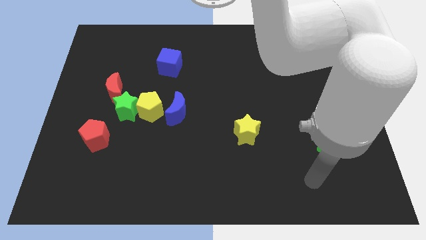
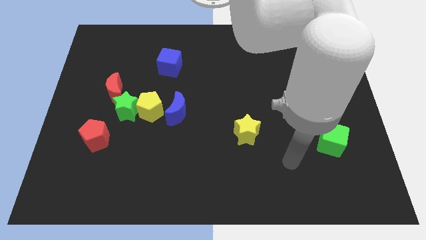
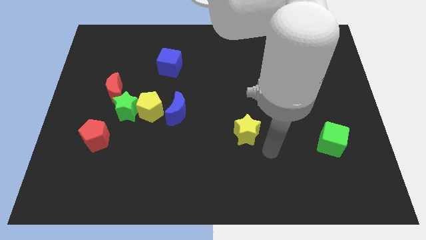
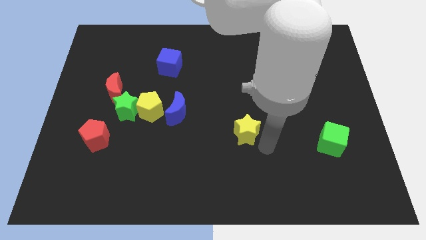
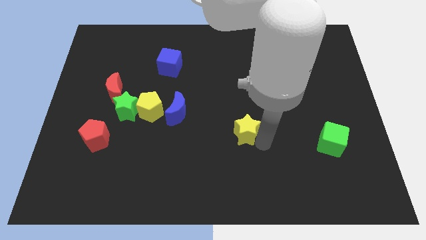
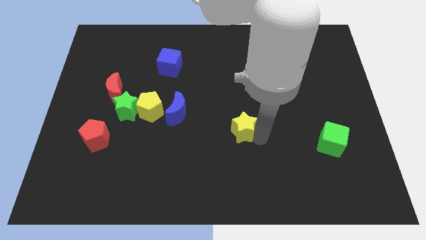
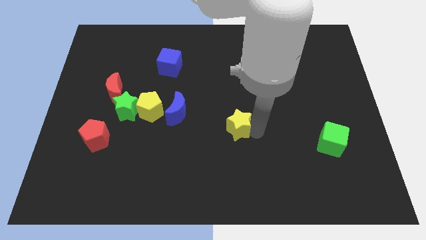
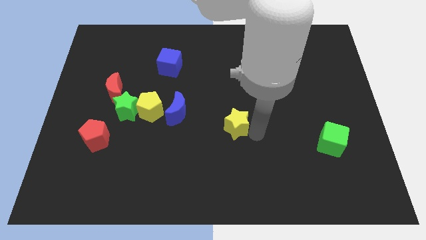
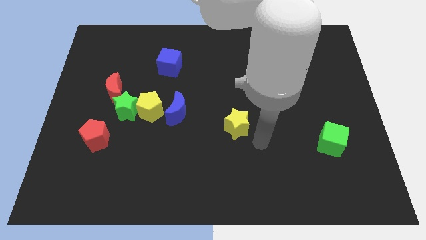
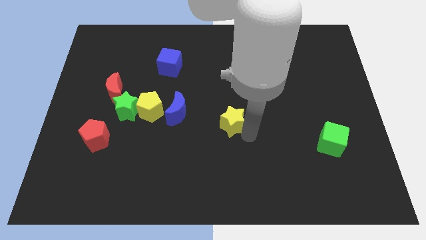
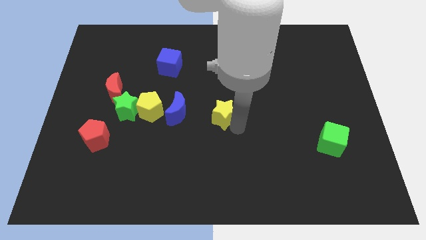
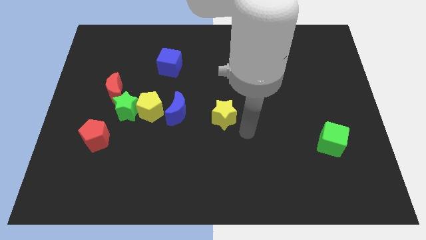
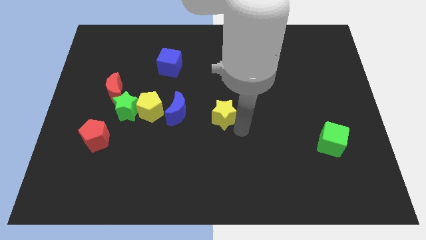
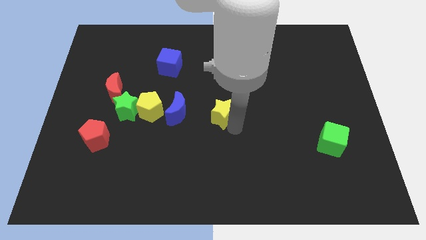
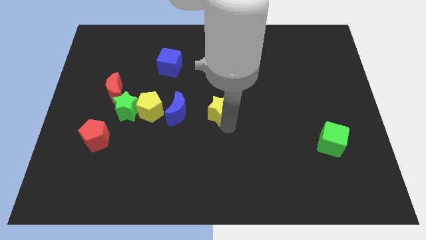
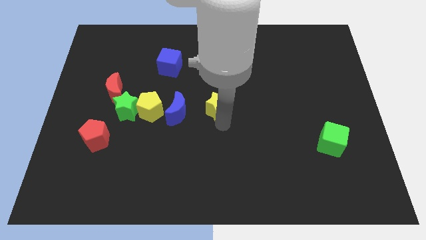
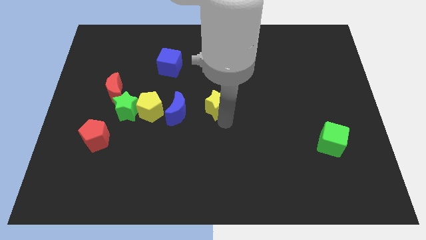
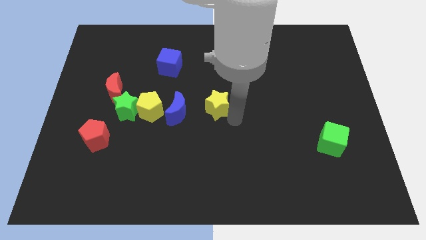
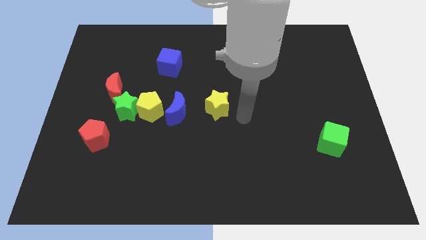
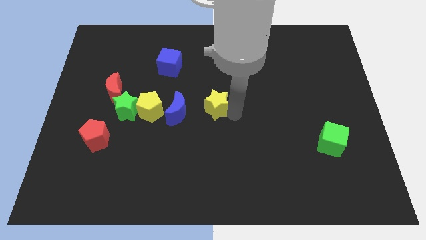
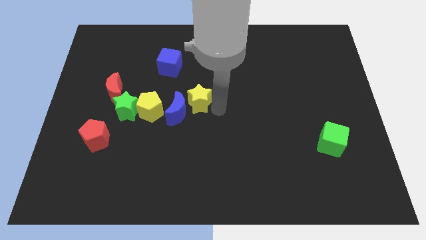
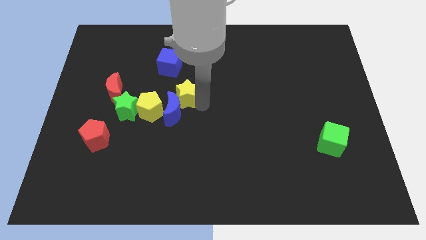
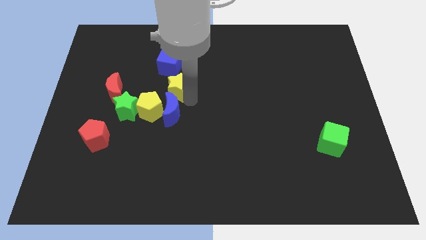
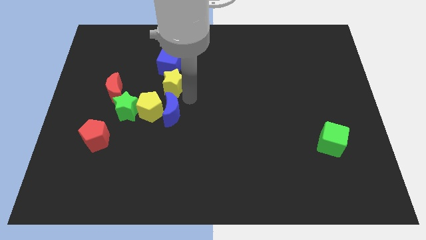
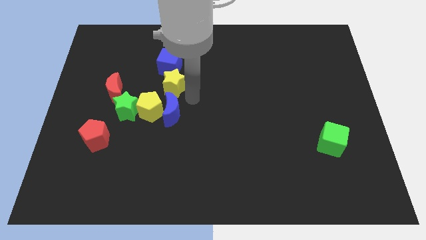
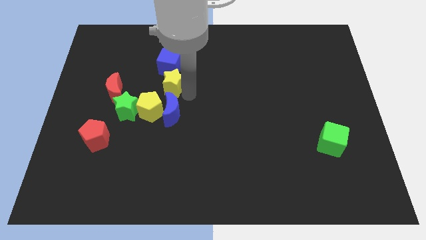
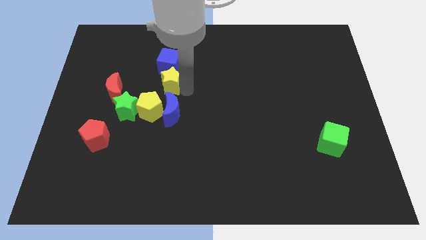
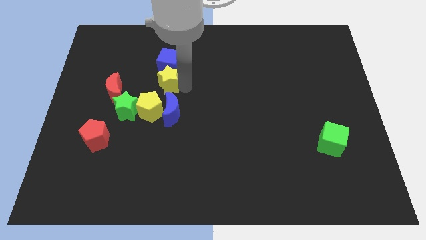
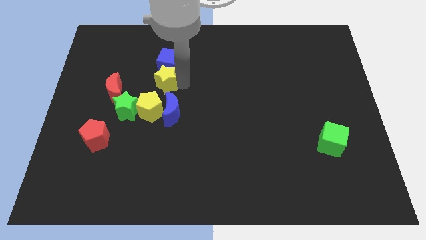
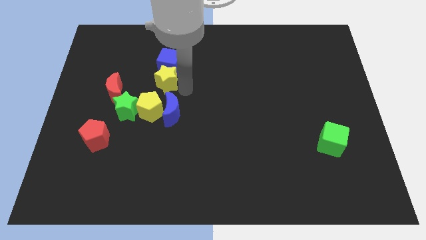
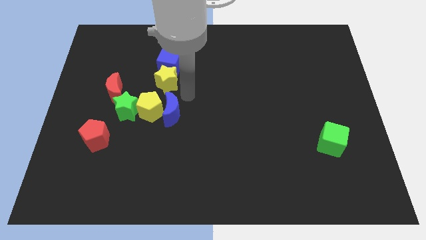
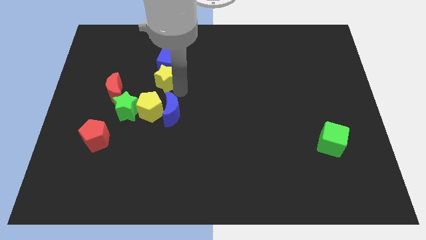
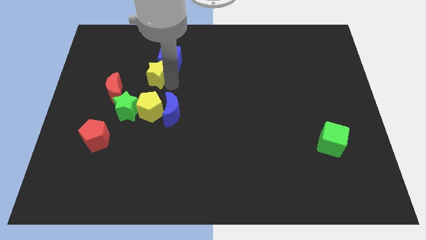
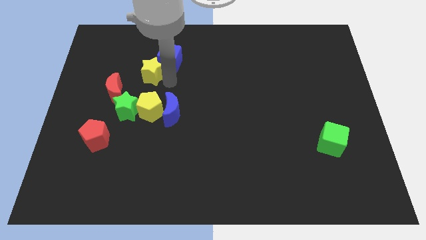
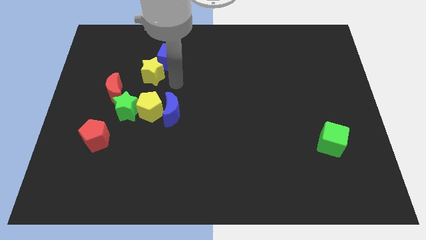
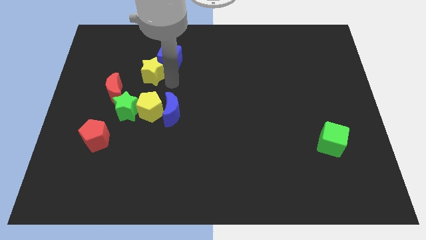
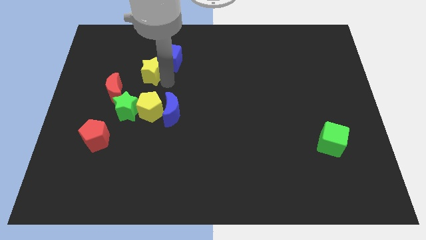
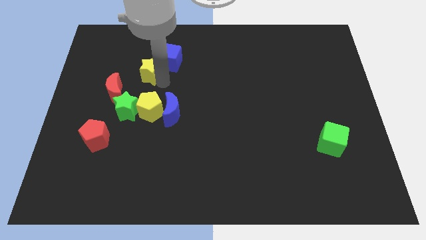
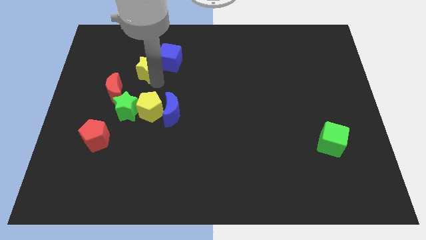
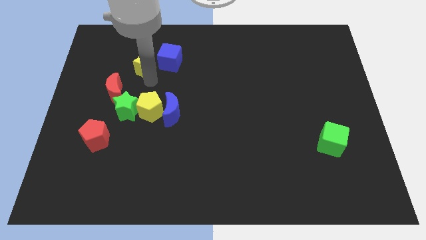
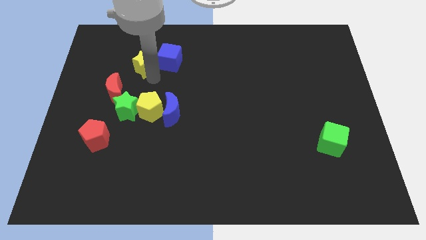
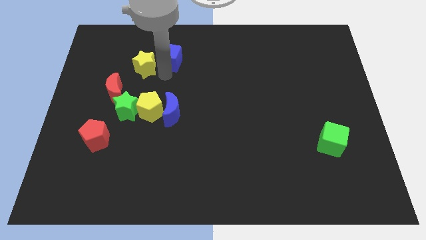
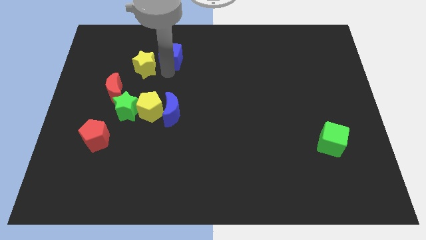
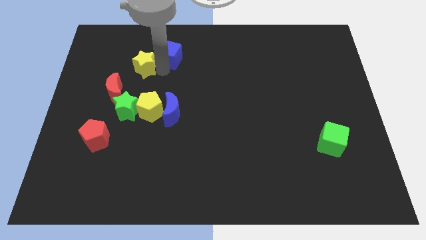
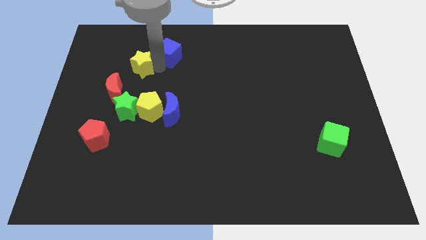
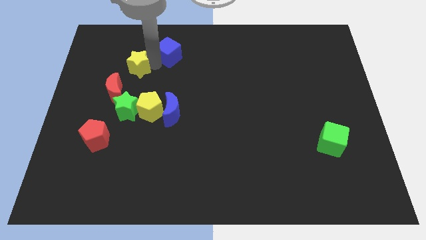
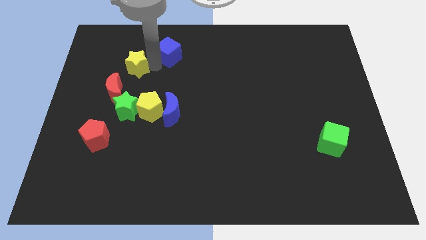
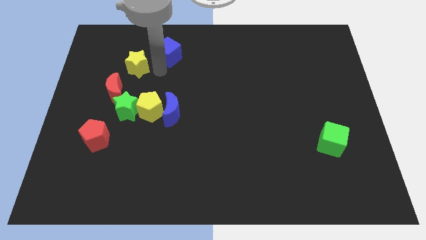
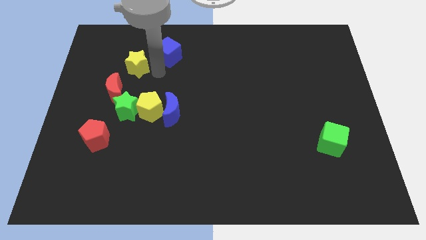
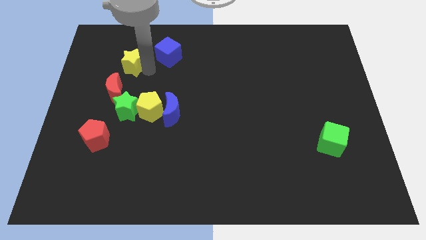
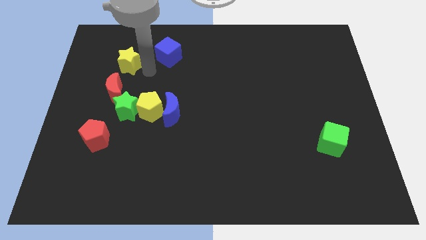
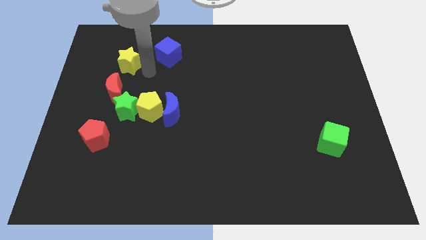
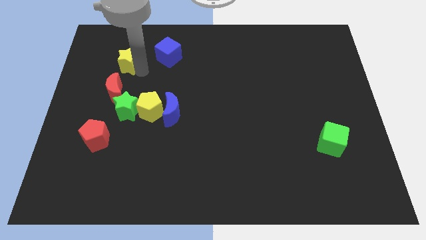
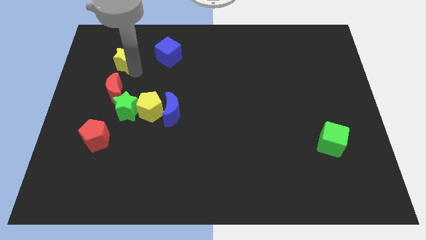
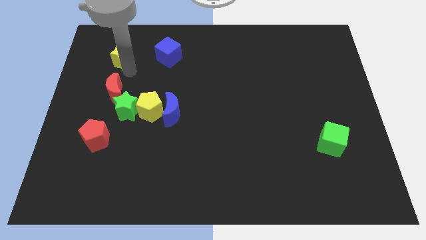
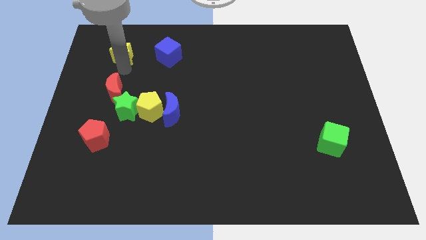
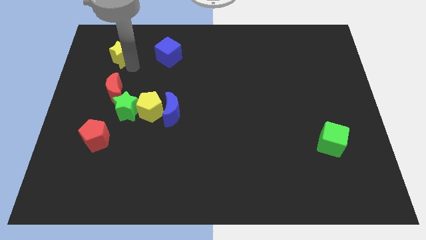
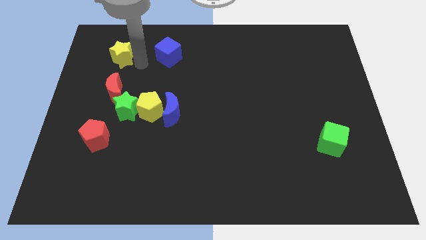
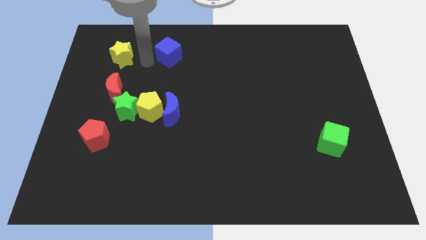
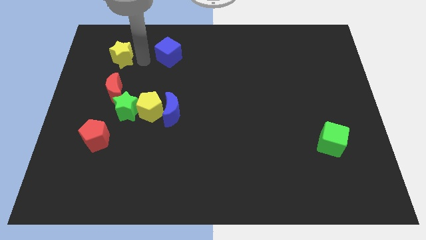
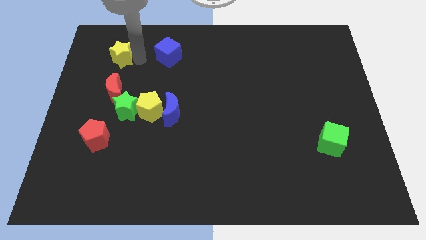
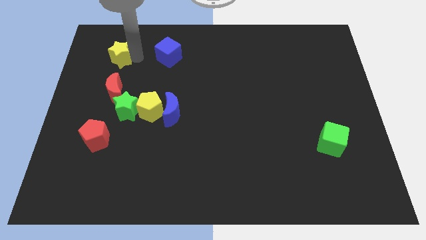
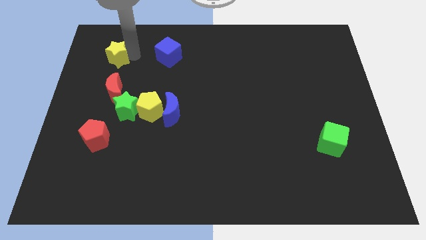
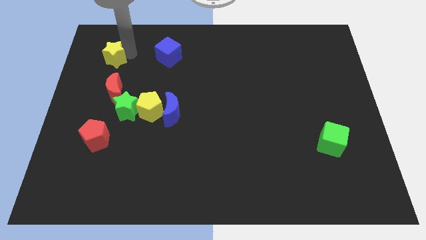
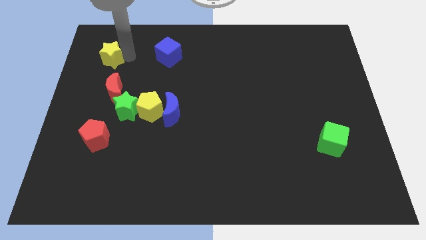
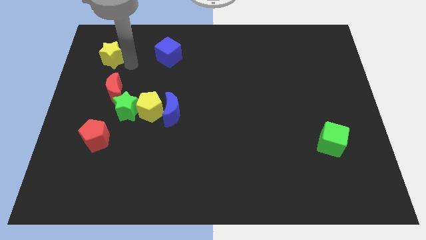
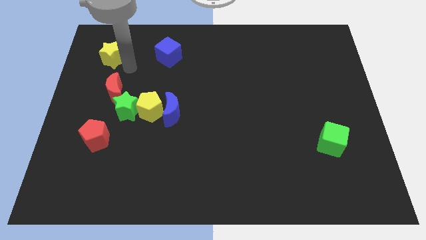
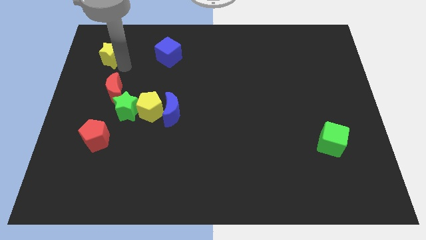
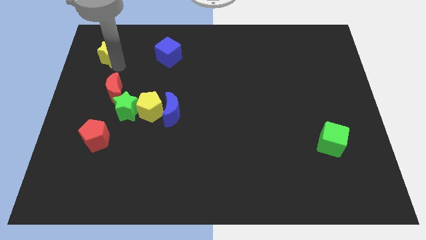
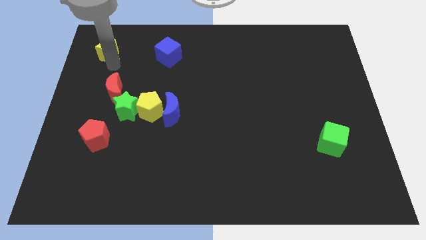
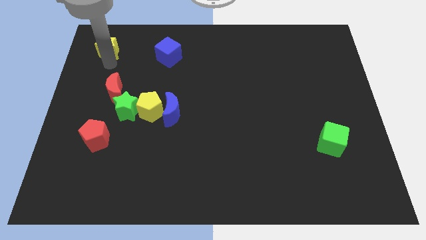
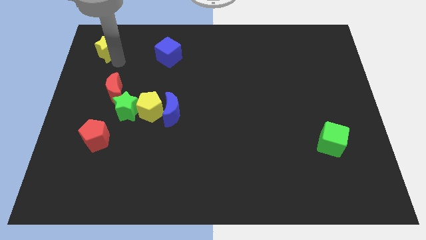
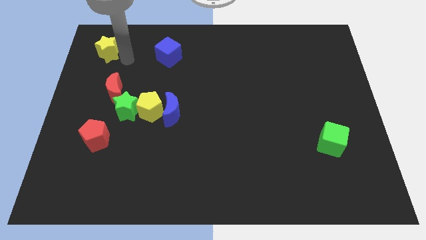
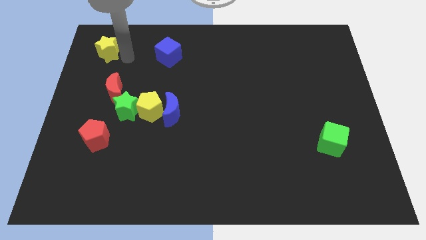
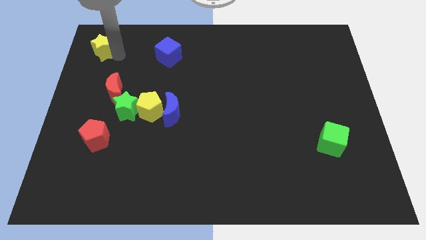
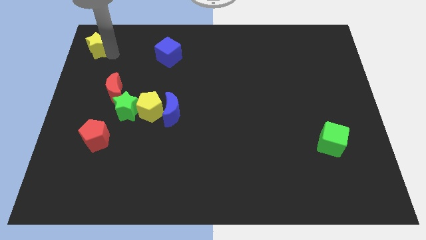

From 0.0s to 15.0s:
push the yellow star to the top left of the board
